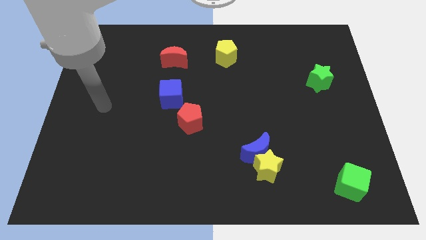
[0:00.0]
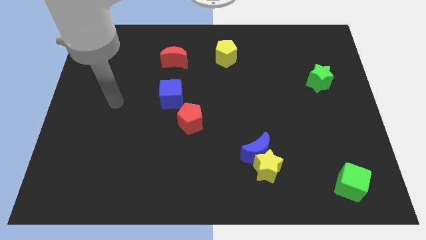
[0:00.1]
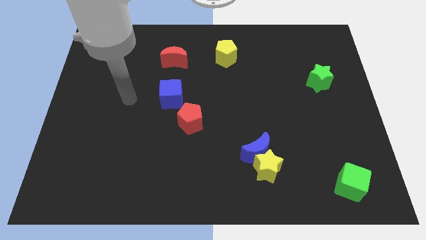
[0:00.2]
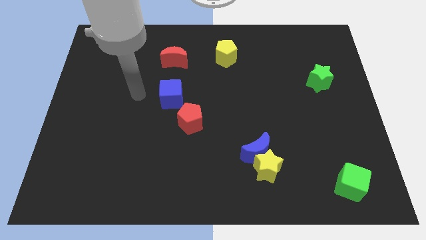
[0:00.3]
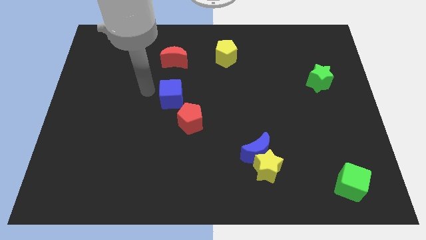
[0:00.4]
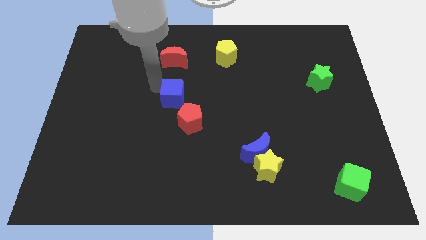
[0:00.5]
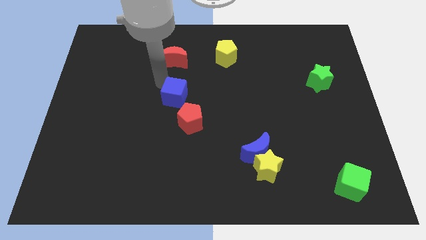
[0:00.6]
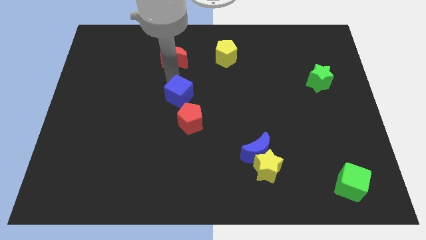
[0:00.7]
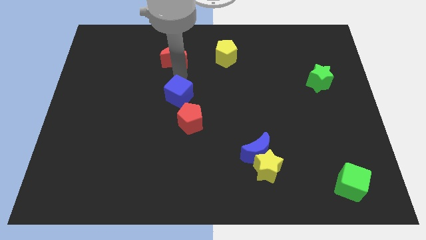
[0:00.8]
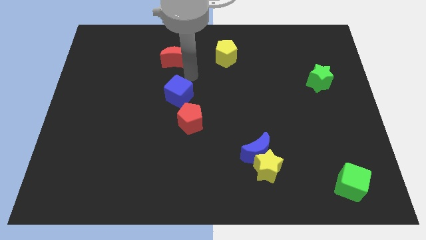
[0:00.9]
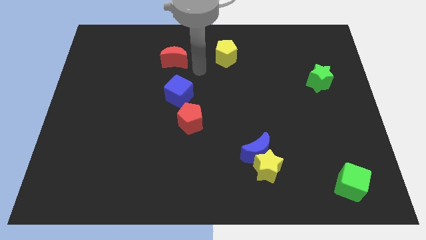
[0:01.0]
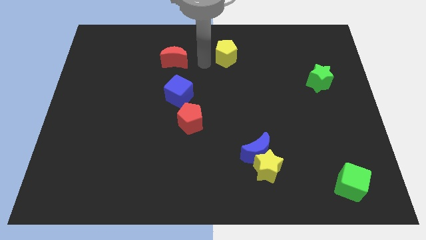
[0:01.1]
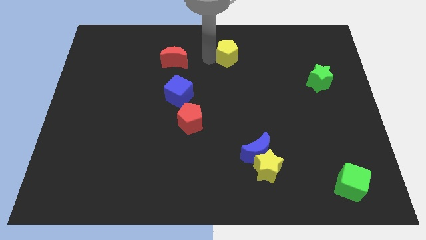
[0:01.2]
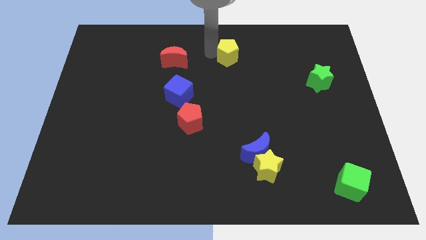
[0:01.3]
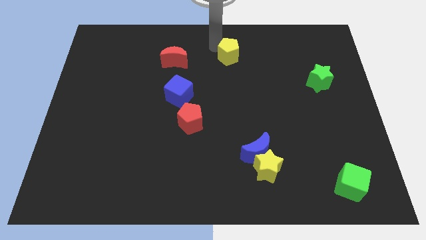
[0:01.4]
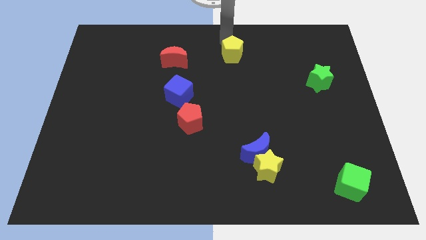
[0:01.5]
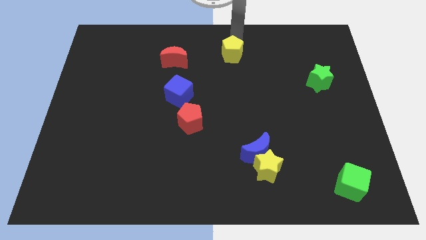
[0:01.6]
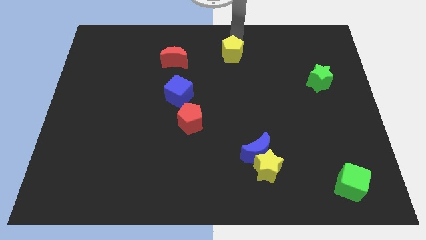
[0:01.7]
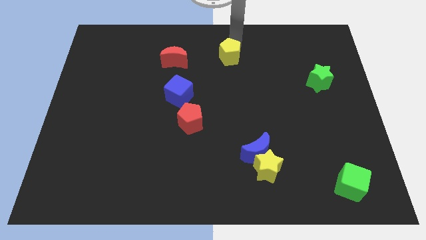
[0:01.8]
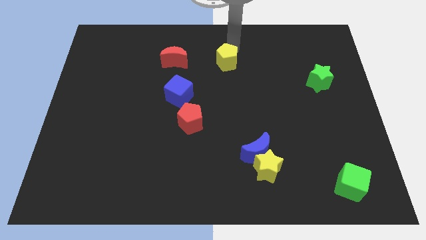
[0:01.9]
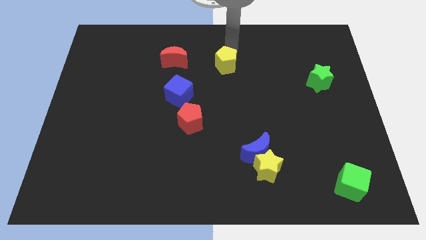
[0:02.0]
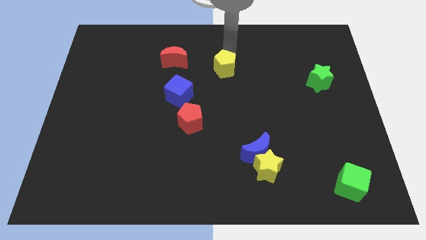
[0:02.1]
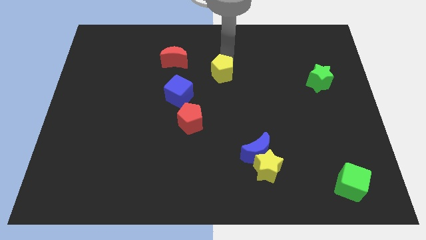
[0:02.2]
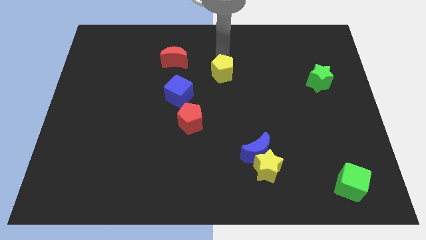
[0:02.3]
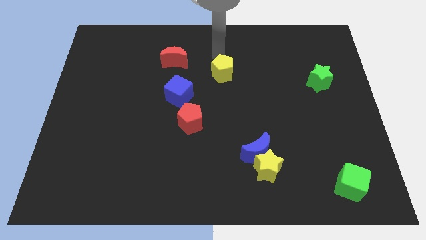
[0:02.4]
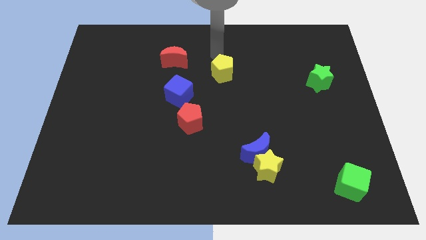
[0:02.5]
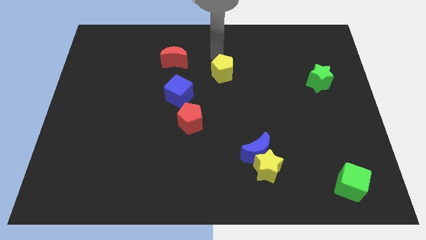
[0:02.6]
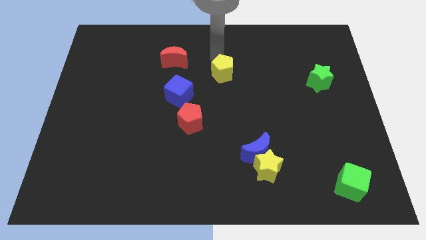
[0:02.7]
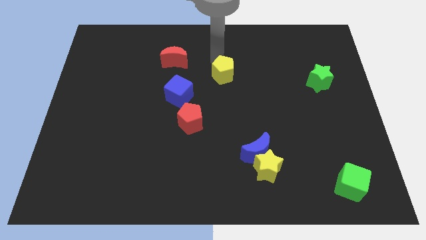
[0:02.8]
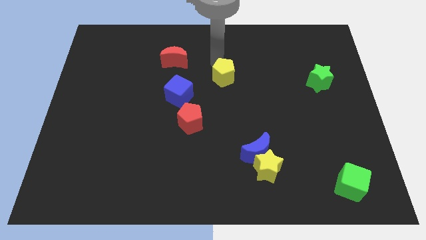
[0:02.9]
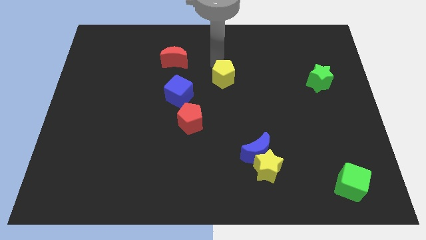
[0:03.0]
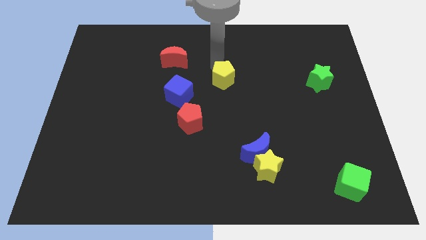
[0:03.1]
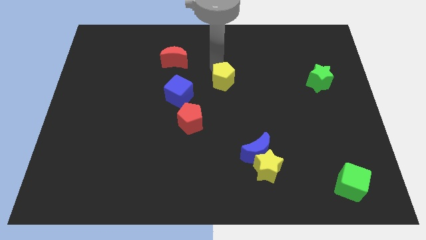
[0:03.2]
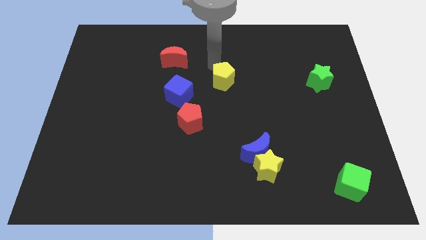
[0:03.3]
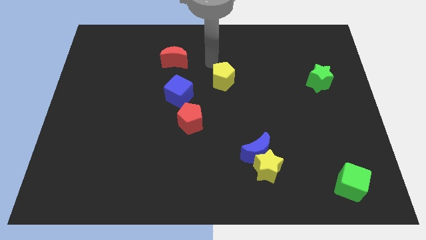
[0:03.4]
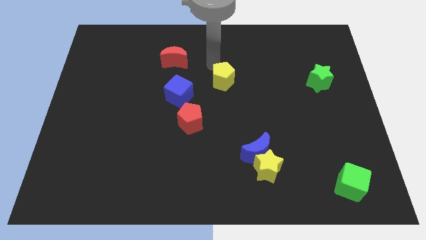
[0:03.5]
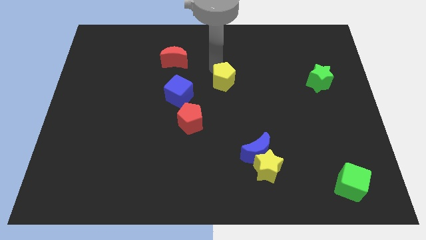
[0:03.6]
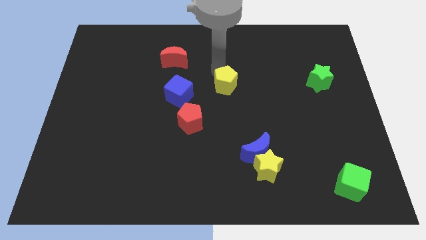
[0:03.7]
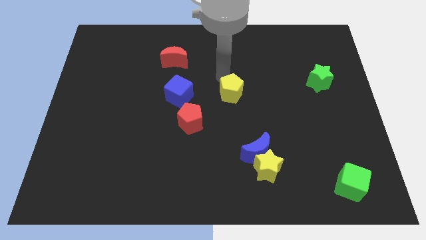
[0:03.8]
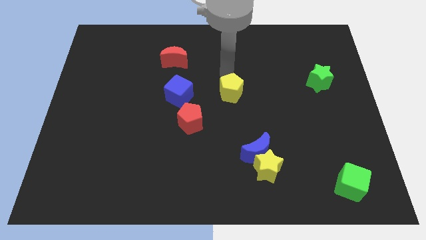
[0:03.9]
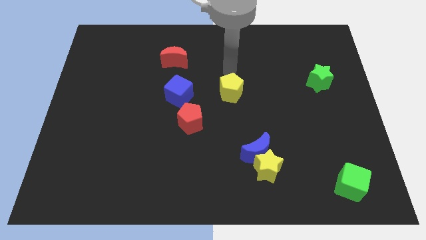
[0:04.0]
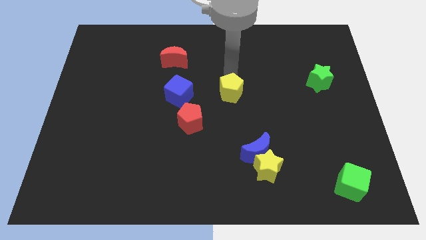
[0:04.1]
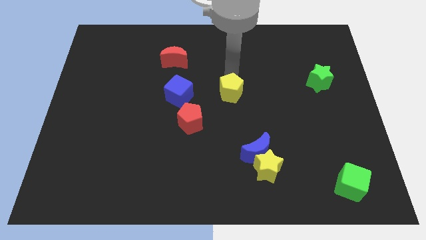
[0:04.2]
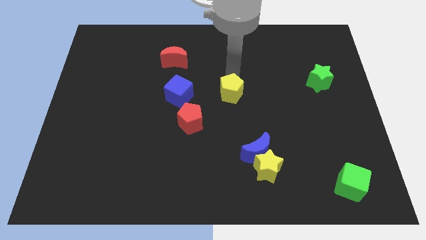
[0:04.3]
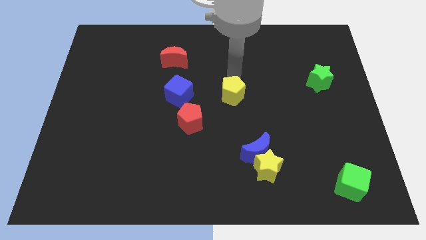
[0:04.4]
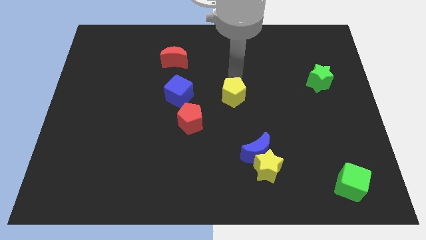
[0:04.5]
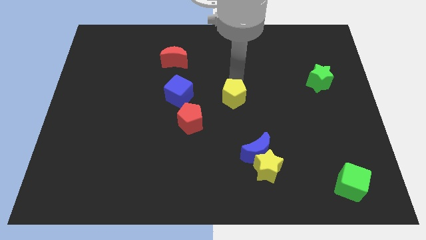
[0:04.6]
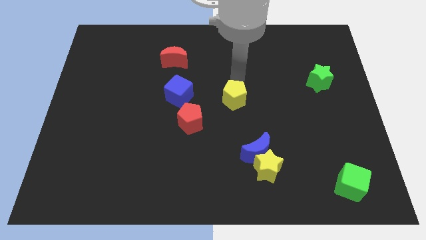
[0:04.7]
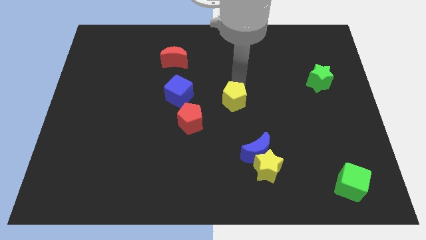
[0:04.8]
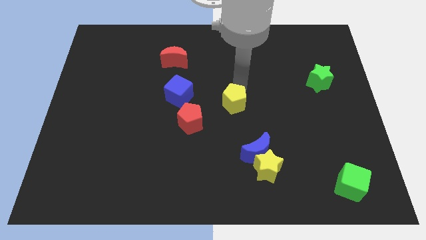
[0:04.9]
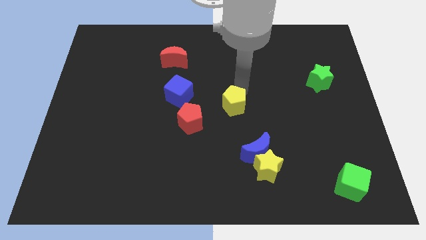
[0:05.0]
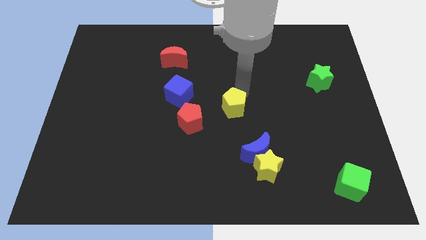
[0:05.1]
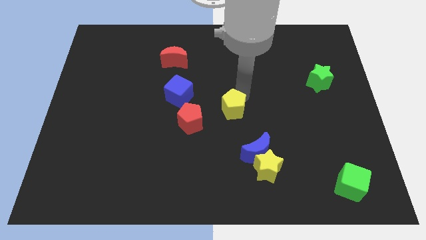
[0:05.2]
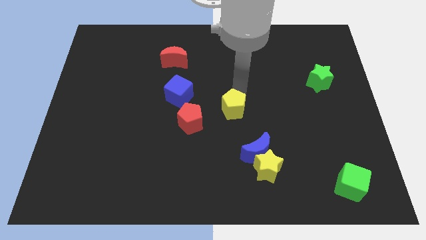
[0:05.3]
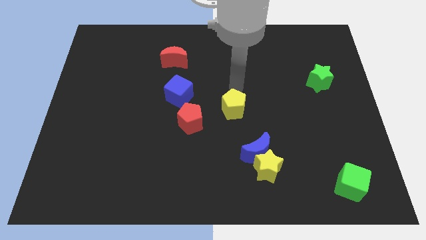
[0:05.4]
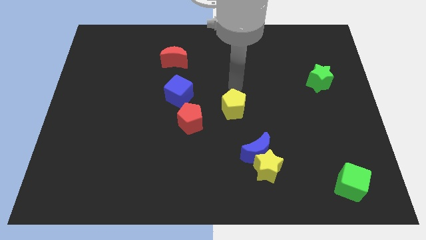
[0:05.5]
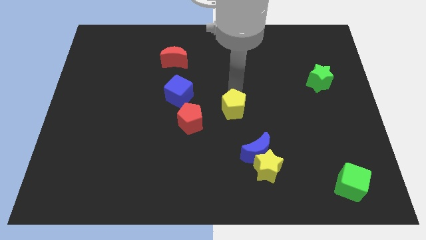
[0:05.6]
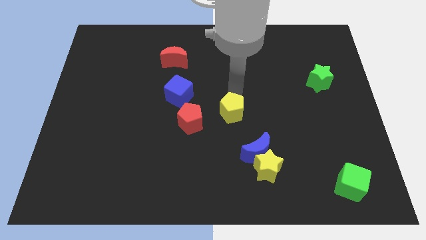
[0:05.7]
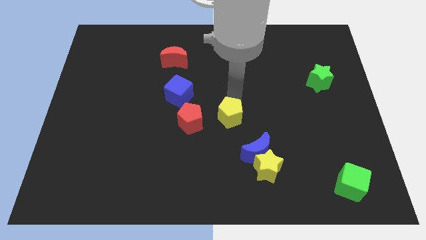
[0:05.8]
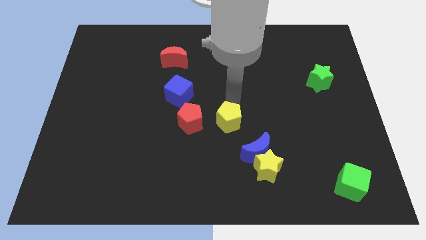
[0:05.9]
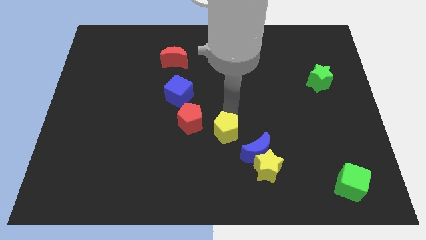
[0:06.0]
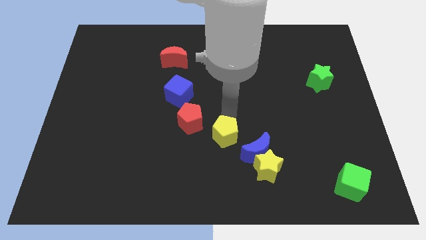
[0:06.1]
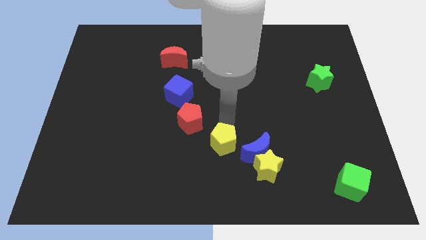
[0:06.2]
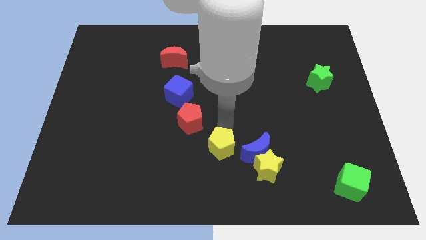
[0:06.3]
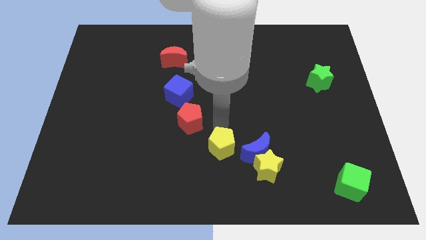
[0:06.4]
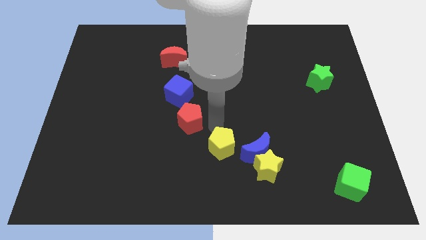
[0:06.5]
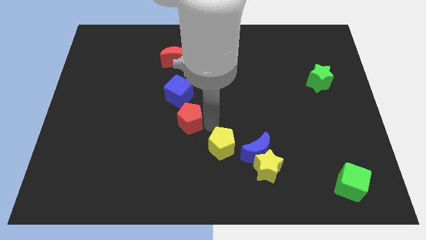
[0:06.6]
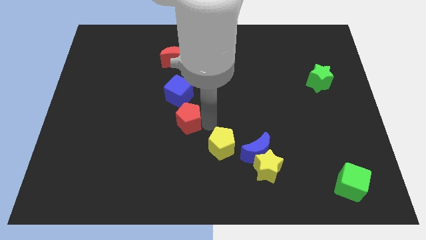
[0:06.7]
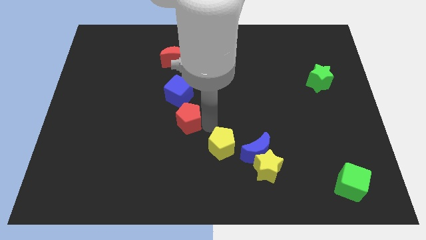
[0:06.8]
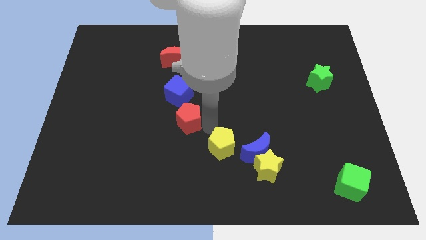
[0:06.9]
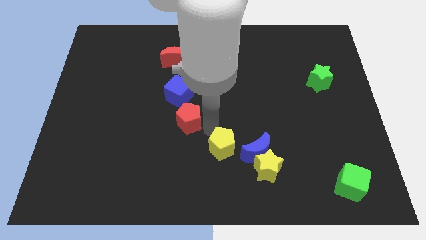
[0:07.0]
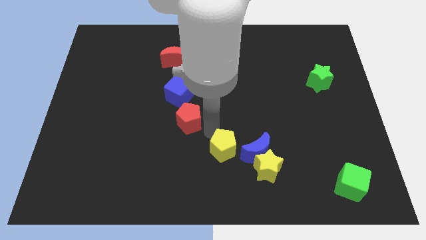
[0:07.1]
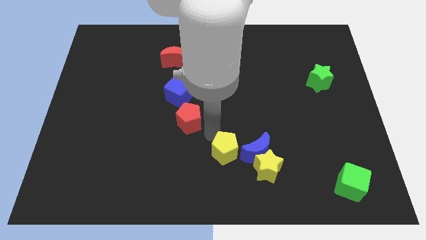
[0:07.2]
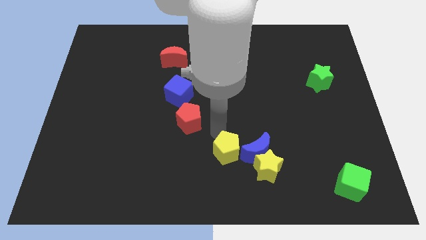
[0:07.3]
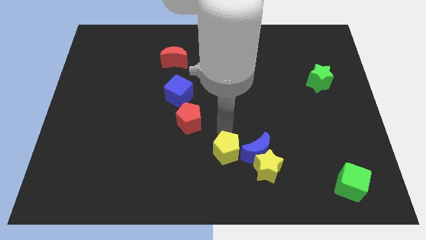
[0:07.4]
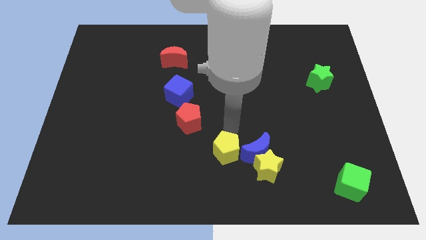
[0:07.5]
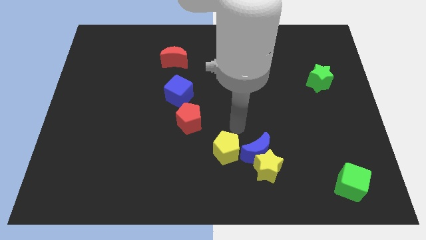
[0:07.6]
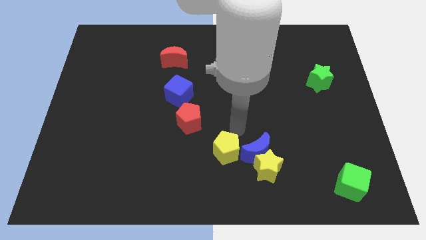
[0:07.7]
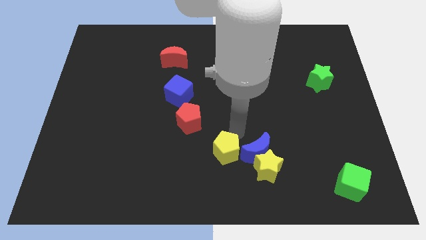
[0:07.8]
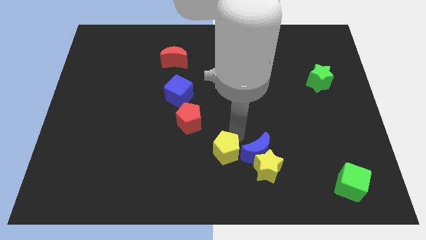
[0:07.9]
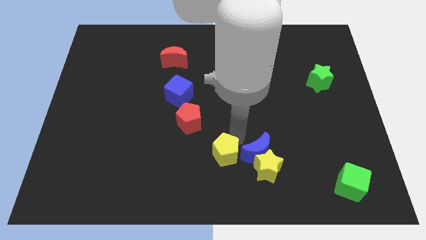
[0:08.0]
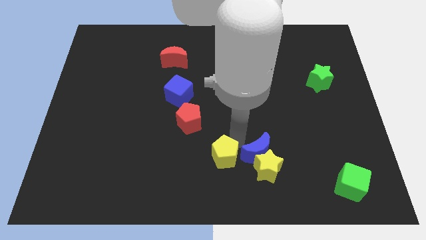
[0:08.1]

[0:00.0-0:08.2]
push the yellow pentagon to the bottom side
